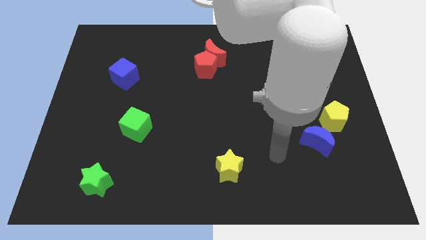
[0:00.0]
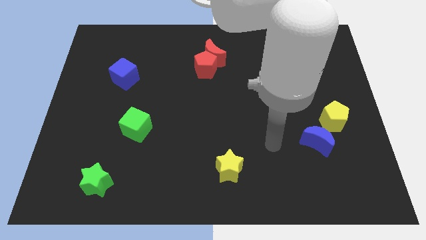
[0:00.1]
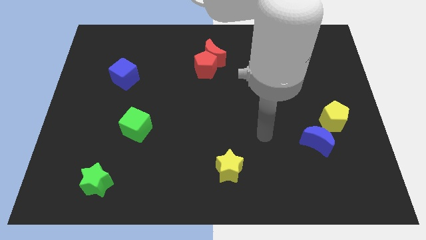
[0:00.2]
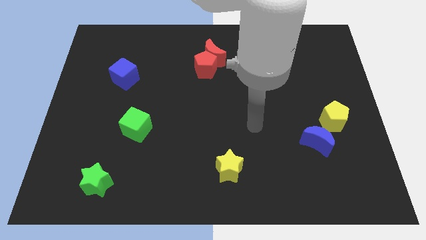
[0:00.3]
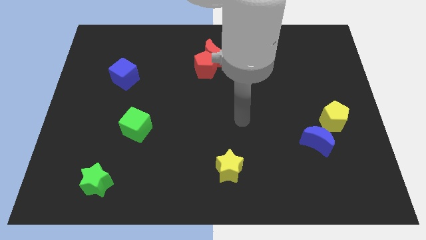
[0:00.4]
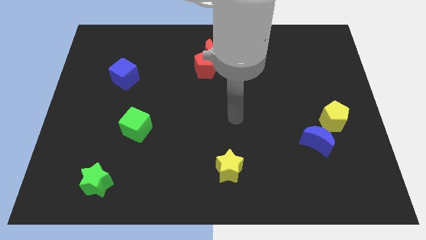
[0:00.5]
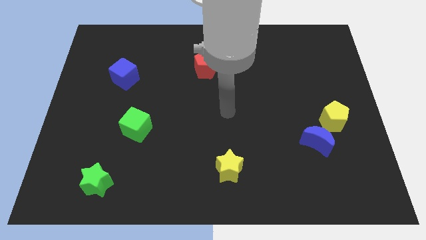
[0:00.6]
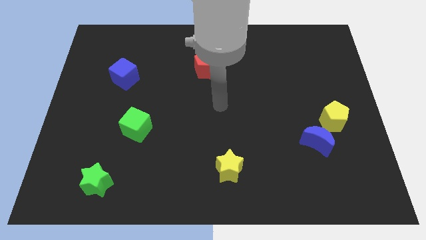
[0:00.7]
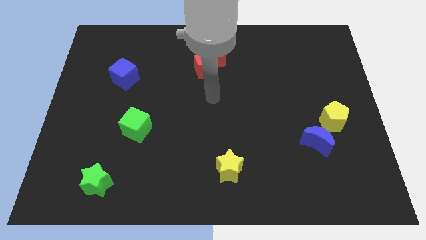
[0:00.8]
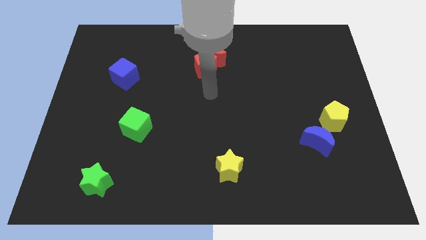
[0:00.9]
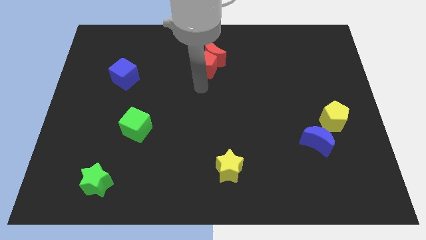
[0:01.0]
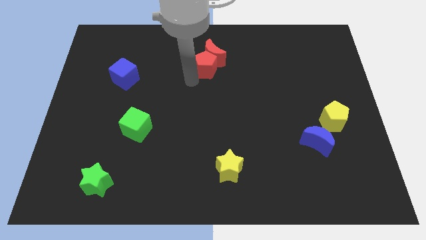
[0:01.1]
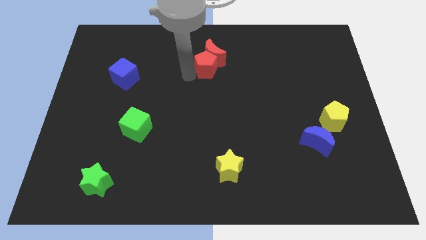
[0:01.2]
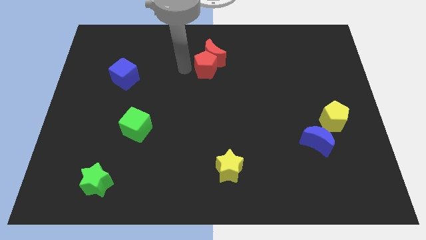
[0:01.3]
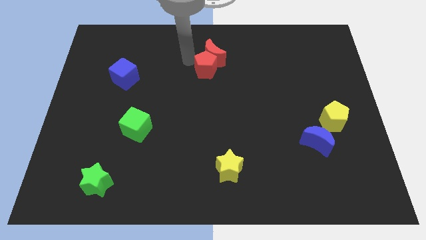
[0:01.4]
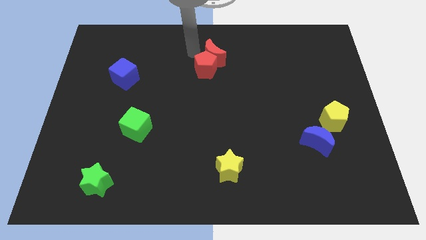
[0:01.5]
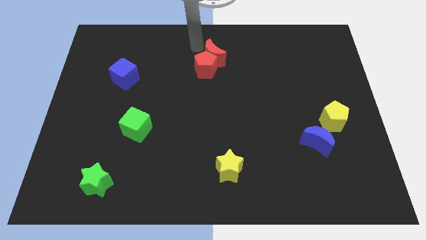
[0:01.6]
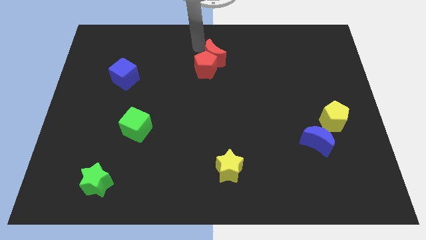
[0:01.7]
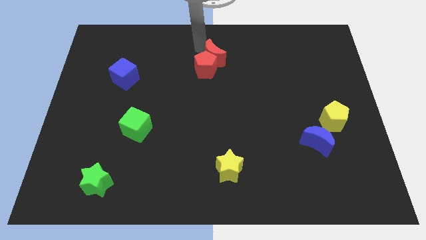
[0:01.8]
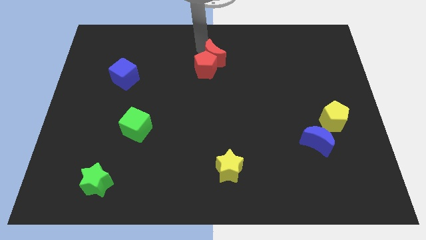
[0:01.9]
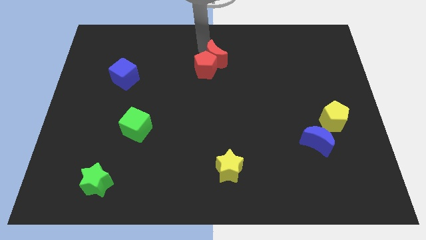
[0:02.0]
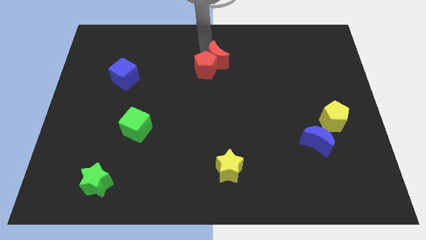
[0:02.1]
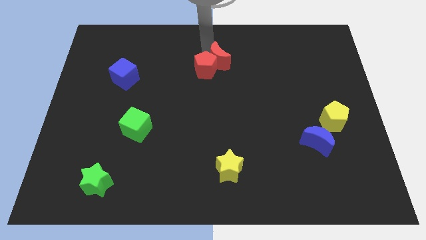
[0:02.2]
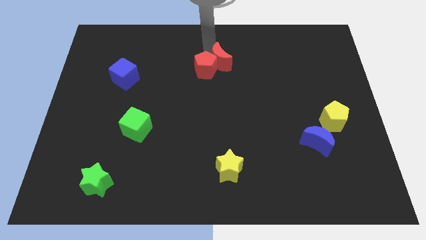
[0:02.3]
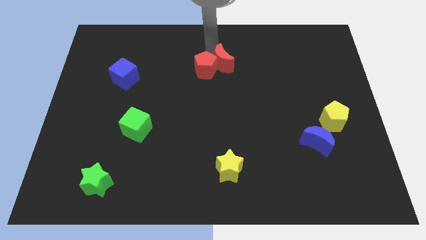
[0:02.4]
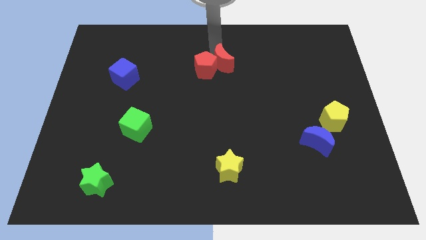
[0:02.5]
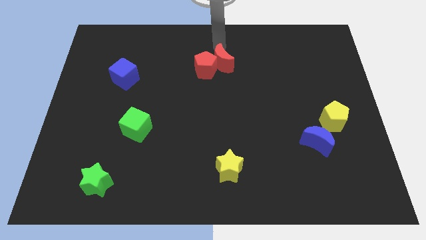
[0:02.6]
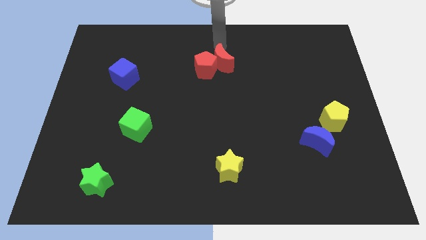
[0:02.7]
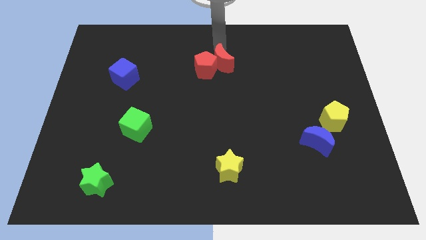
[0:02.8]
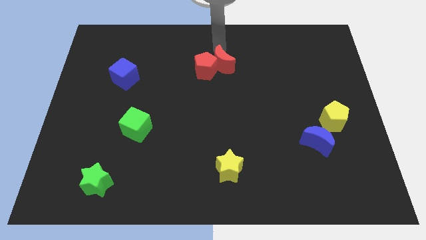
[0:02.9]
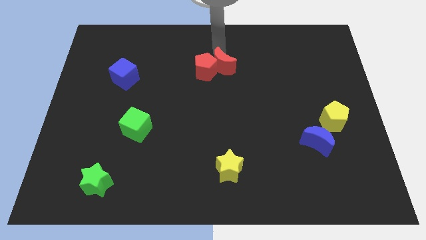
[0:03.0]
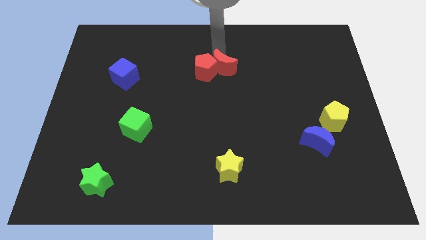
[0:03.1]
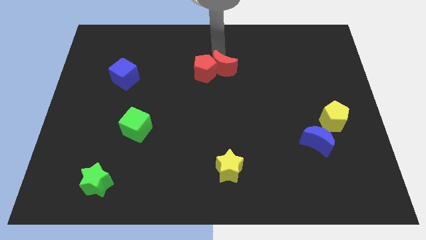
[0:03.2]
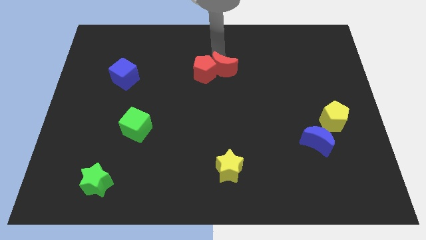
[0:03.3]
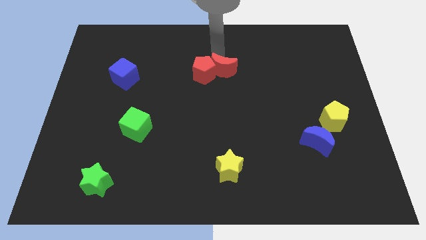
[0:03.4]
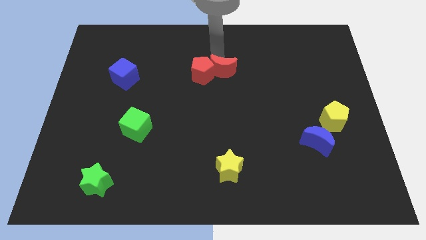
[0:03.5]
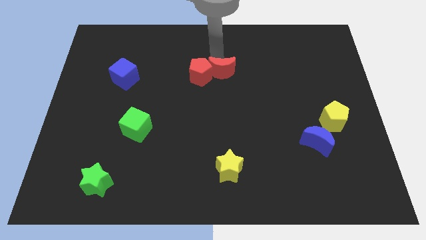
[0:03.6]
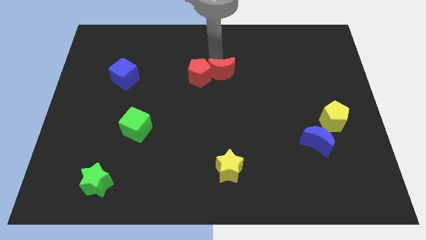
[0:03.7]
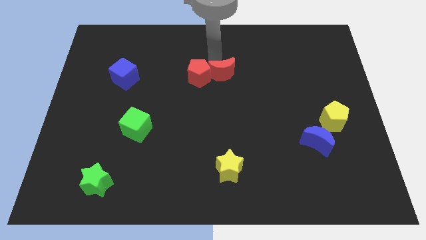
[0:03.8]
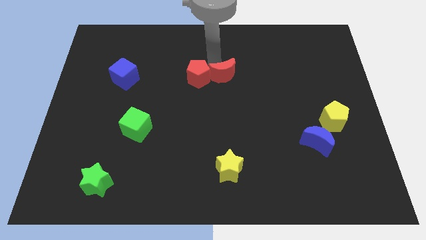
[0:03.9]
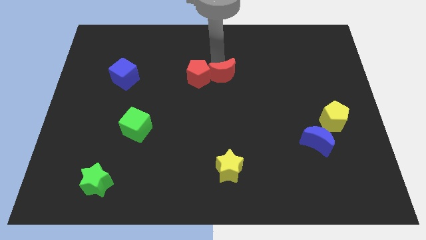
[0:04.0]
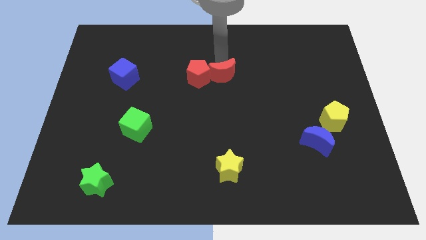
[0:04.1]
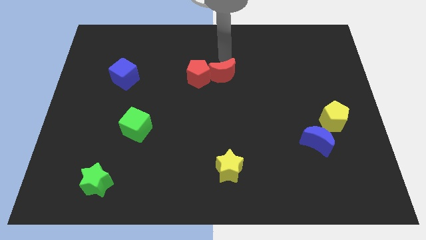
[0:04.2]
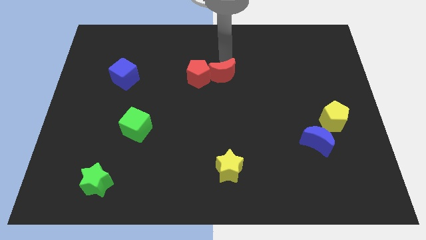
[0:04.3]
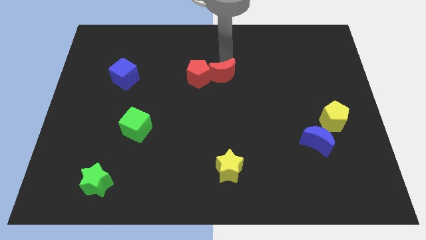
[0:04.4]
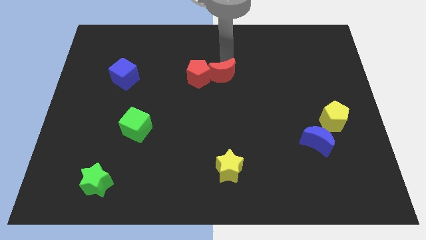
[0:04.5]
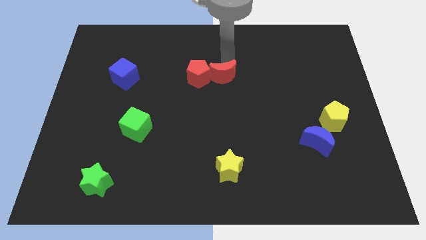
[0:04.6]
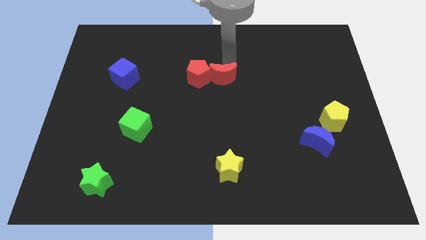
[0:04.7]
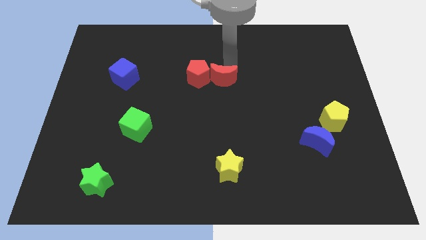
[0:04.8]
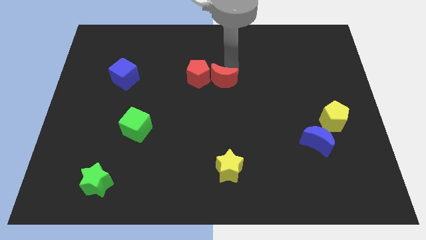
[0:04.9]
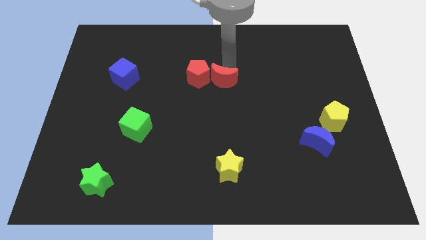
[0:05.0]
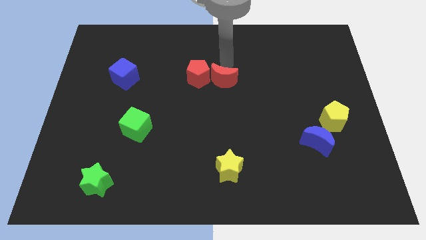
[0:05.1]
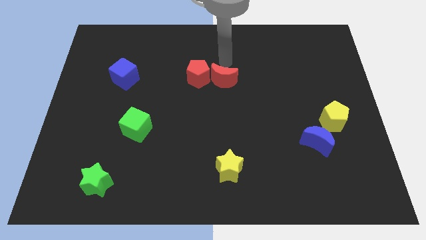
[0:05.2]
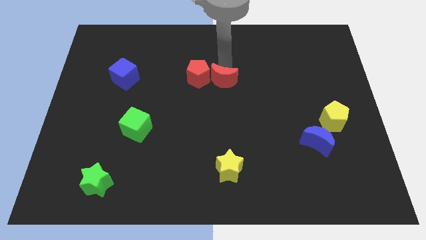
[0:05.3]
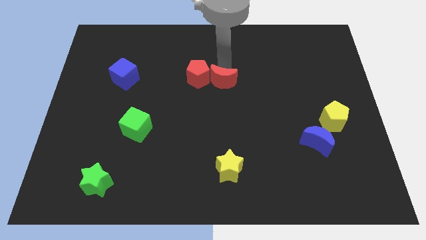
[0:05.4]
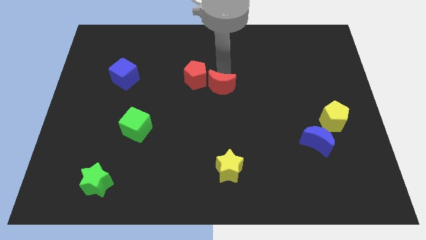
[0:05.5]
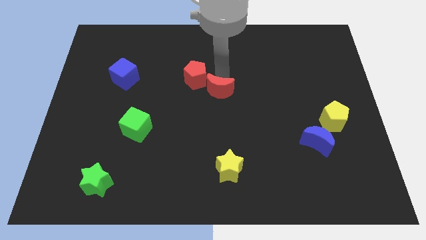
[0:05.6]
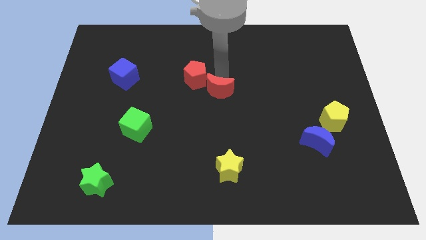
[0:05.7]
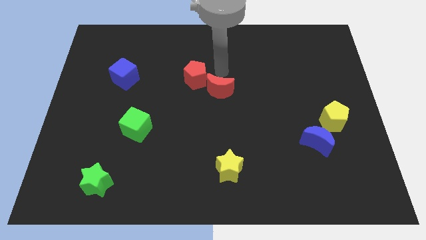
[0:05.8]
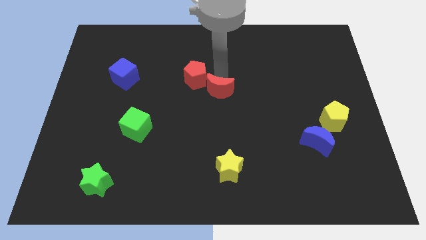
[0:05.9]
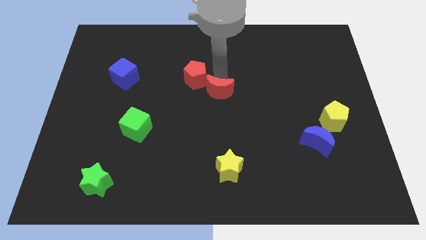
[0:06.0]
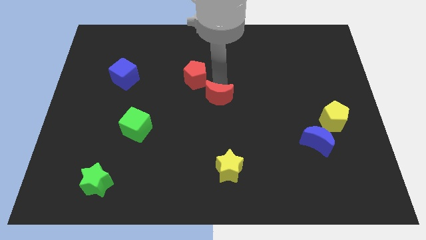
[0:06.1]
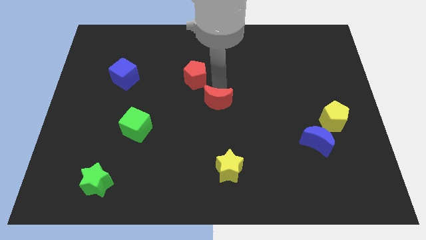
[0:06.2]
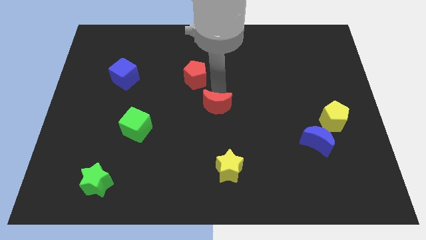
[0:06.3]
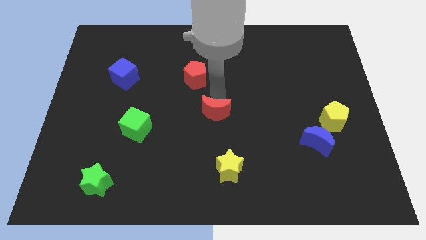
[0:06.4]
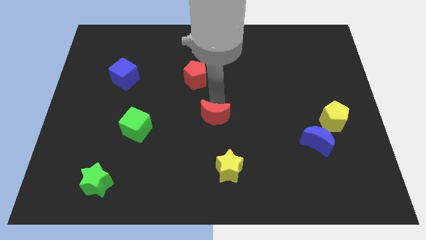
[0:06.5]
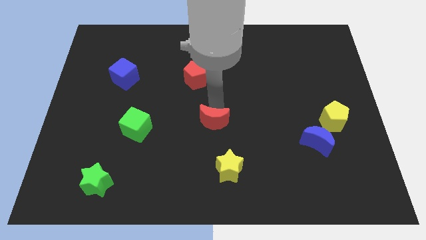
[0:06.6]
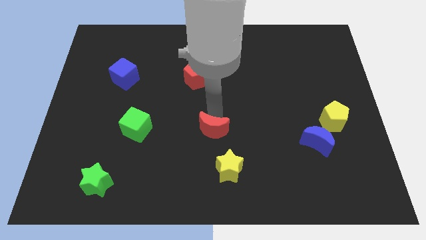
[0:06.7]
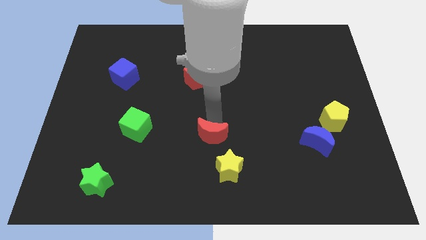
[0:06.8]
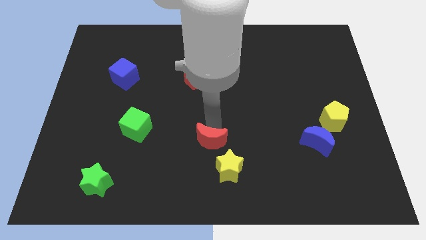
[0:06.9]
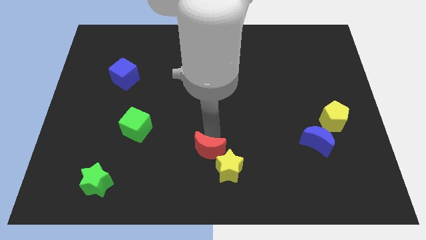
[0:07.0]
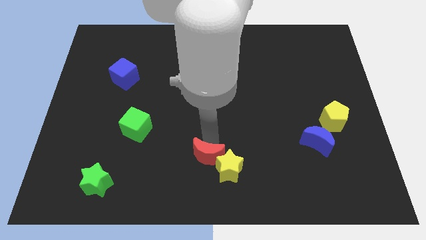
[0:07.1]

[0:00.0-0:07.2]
push the red moon to the bottom side

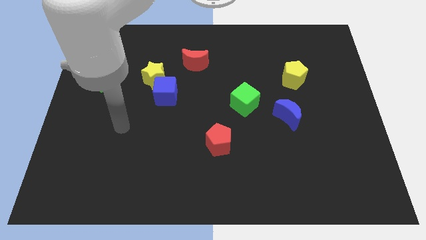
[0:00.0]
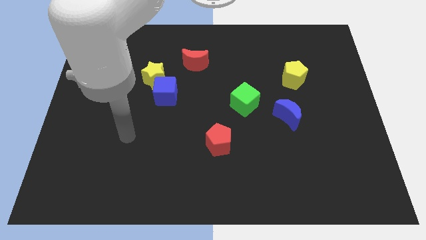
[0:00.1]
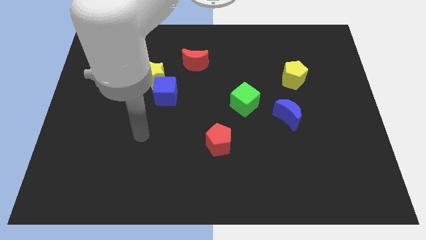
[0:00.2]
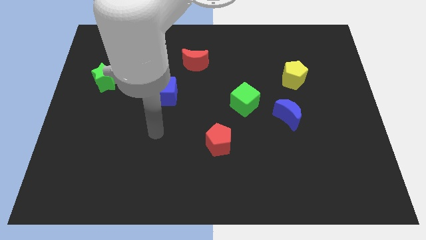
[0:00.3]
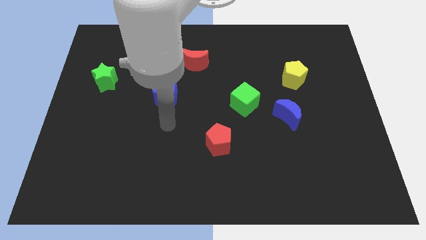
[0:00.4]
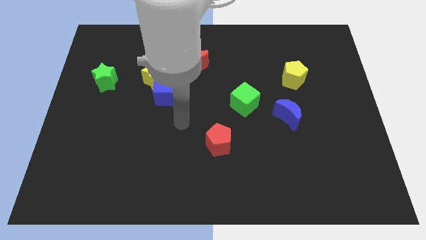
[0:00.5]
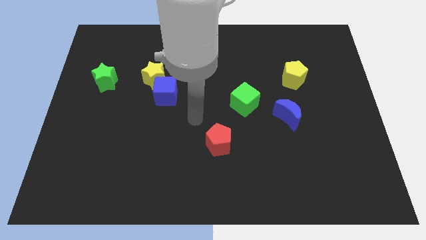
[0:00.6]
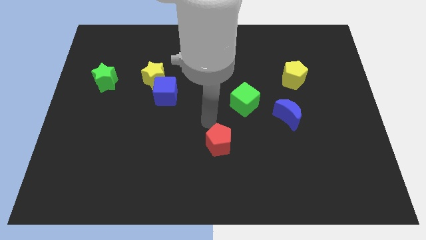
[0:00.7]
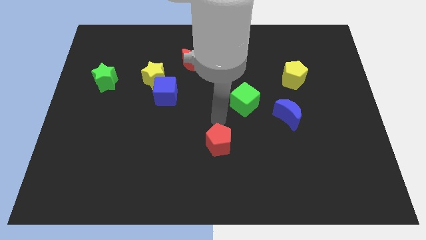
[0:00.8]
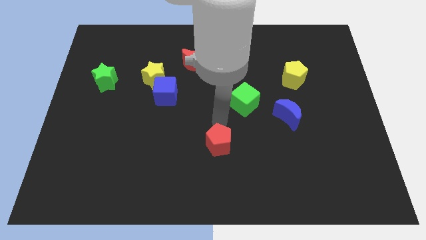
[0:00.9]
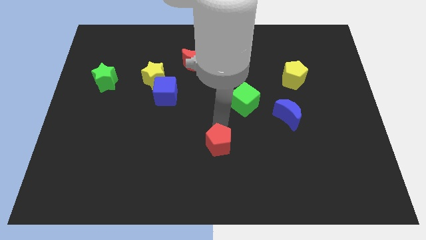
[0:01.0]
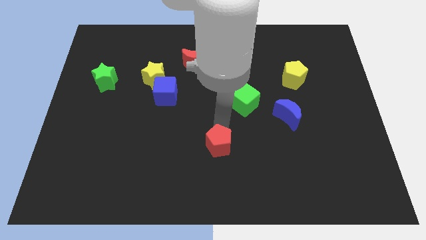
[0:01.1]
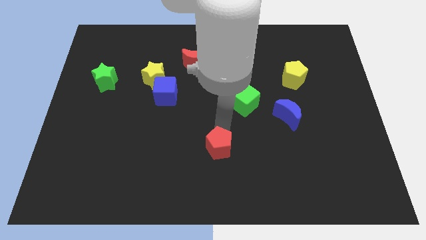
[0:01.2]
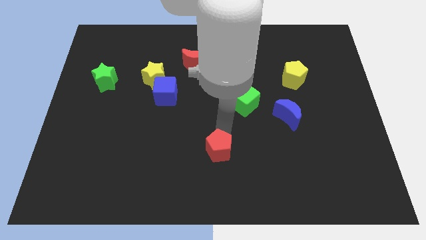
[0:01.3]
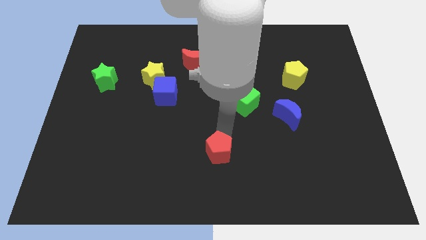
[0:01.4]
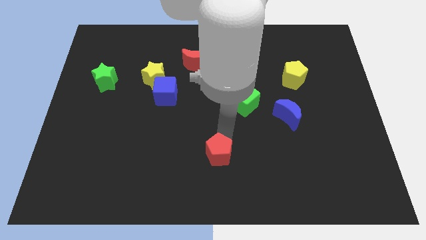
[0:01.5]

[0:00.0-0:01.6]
put the red pentagon to the bottom side
